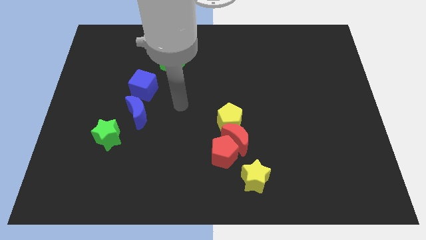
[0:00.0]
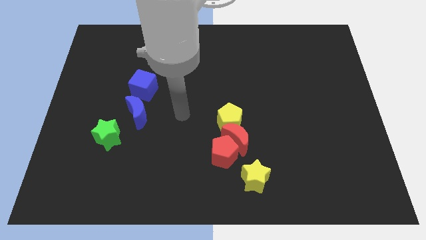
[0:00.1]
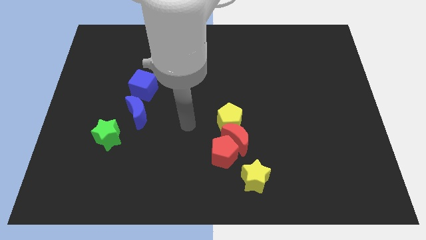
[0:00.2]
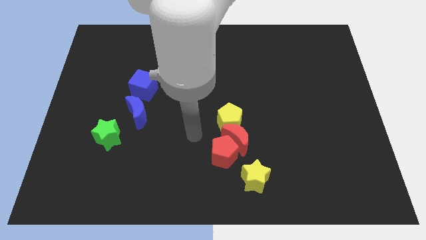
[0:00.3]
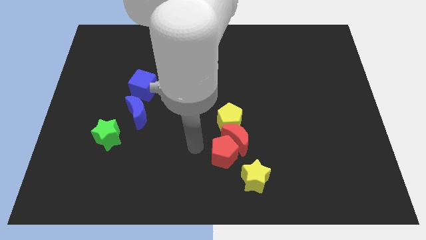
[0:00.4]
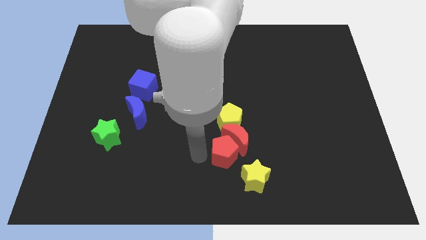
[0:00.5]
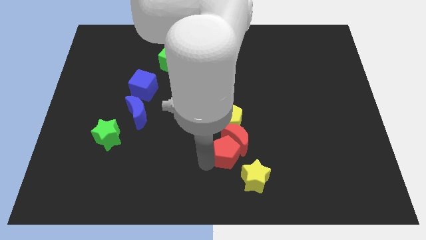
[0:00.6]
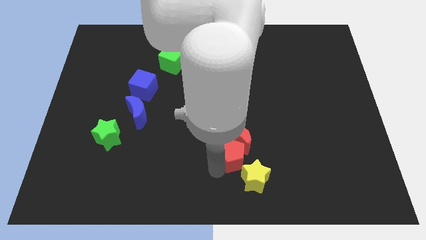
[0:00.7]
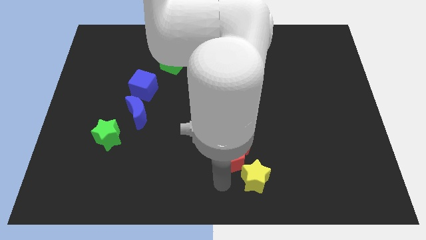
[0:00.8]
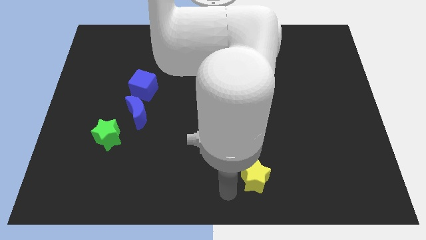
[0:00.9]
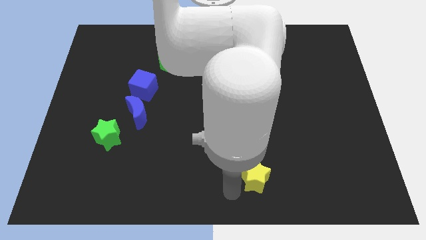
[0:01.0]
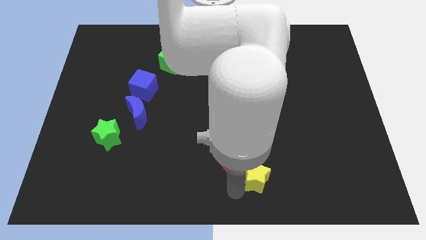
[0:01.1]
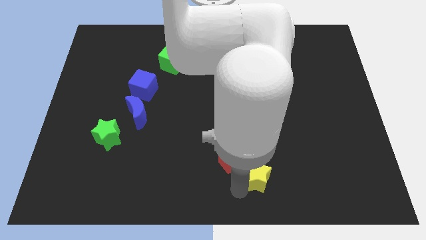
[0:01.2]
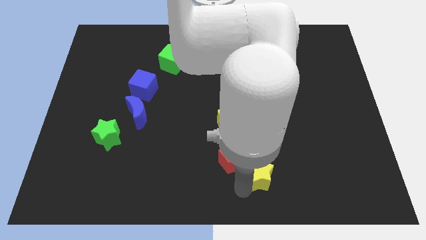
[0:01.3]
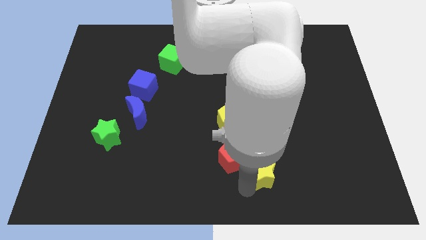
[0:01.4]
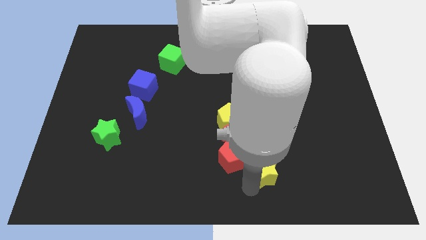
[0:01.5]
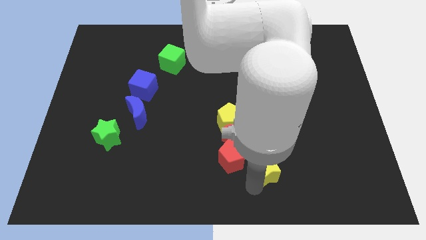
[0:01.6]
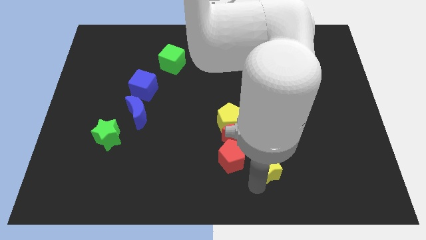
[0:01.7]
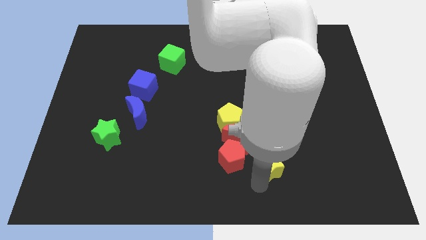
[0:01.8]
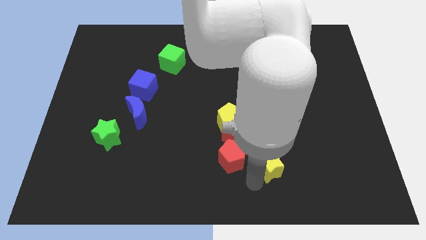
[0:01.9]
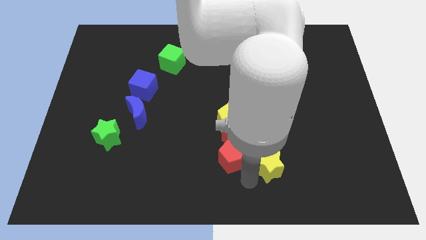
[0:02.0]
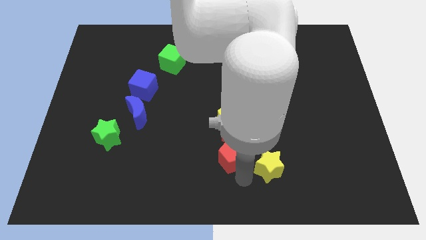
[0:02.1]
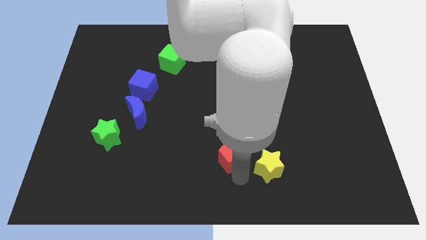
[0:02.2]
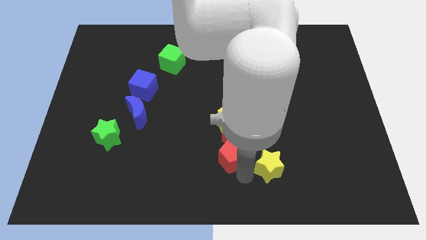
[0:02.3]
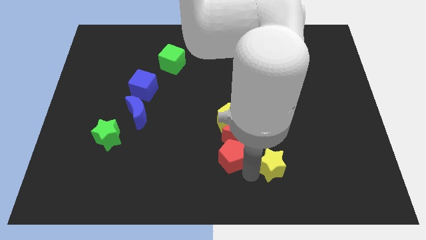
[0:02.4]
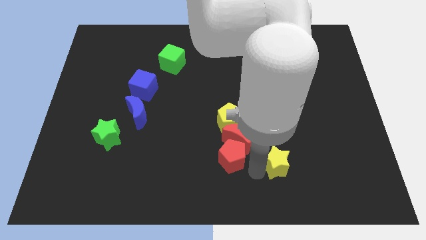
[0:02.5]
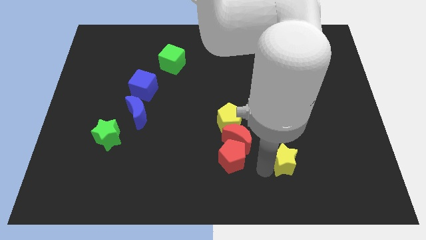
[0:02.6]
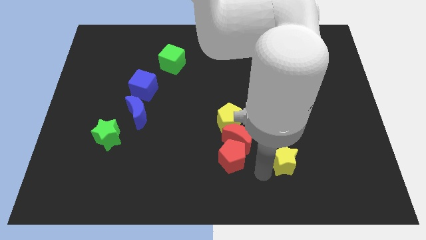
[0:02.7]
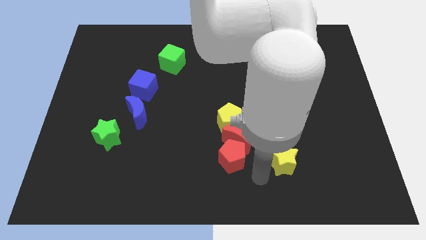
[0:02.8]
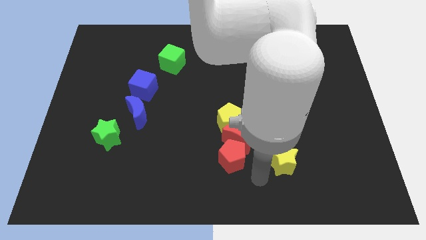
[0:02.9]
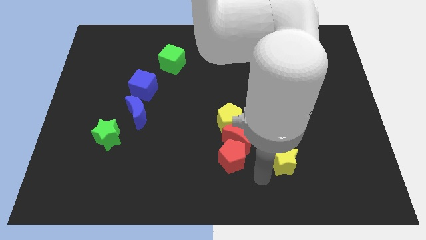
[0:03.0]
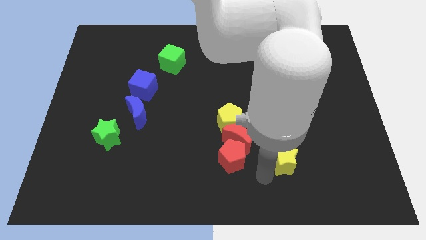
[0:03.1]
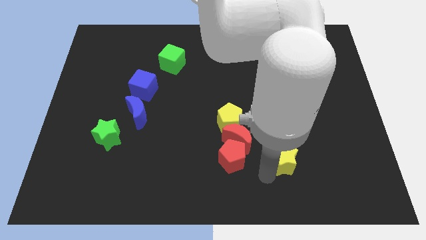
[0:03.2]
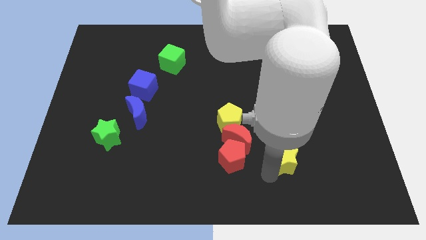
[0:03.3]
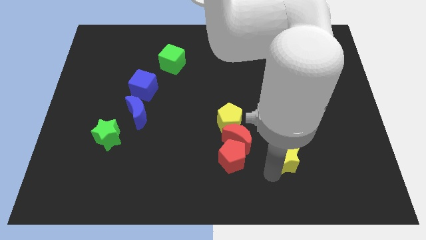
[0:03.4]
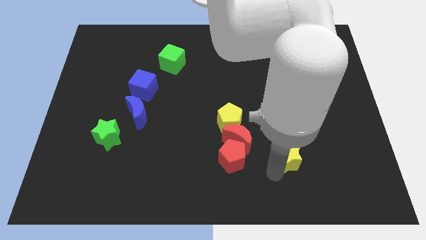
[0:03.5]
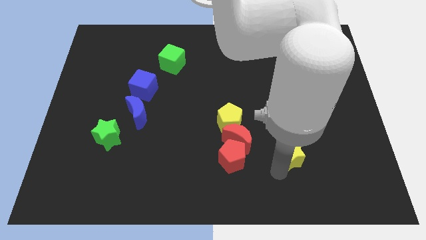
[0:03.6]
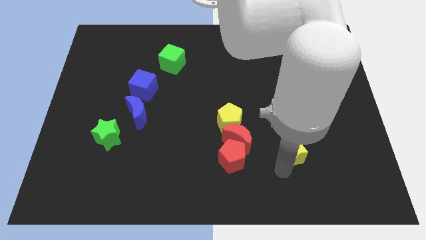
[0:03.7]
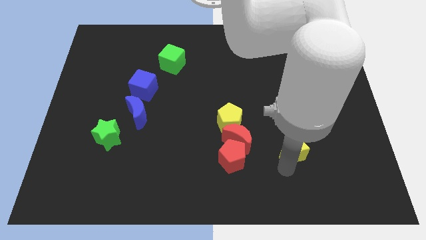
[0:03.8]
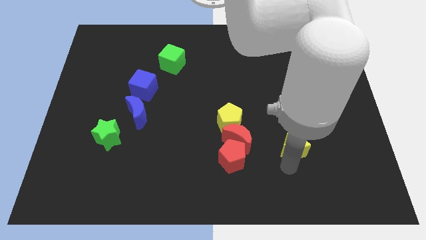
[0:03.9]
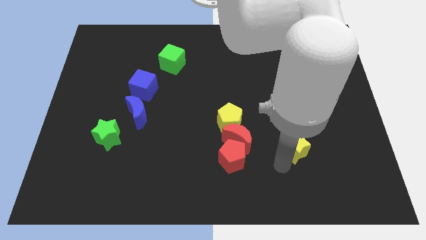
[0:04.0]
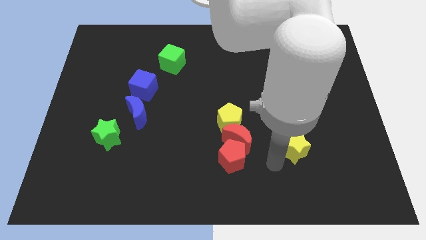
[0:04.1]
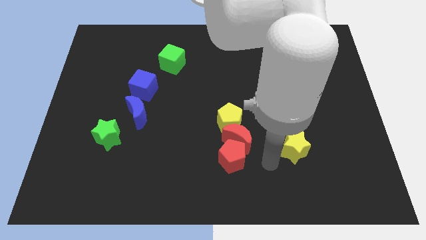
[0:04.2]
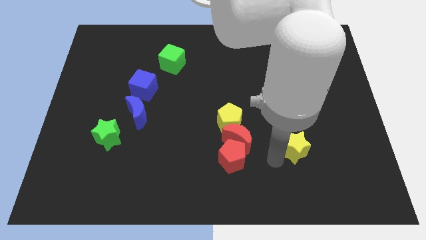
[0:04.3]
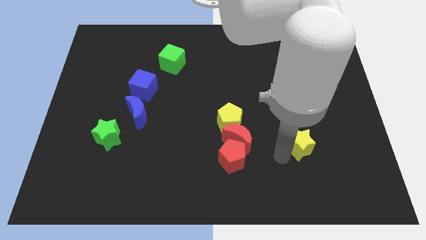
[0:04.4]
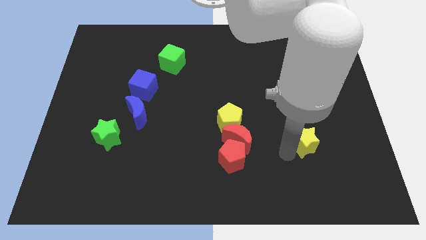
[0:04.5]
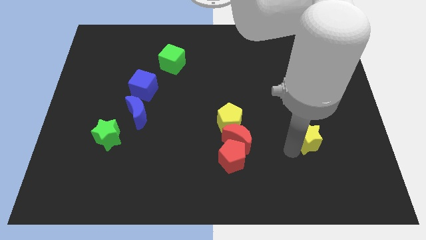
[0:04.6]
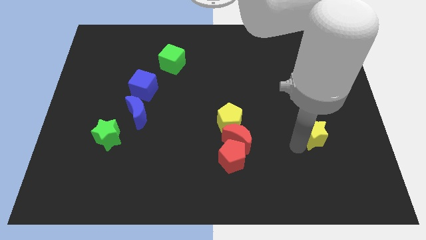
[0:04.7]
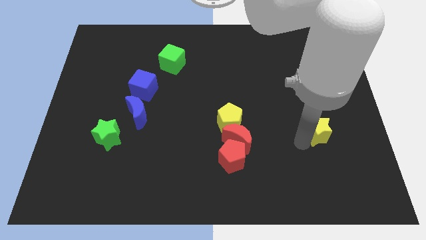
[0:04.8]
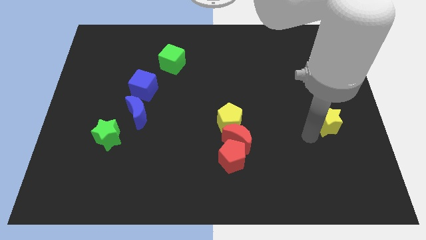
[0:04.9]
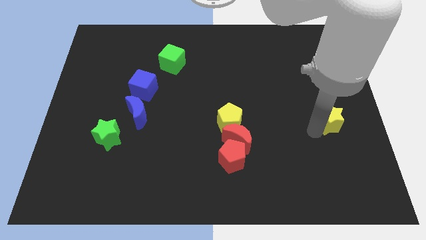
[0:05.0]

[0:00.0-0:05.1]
move the yellow star to the right side

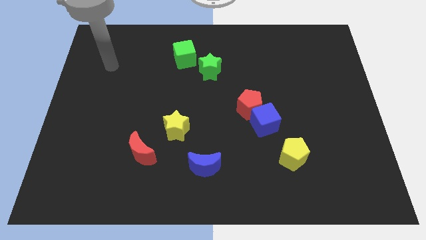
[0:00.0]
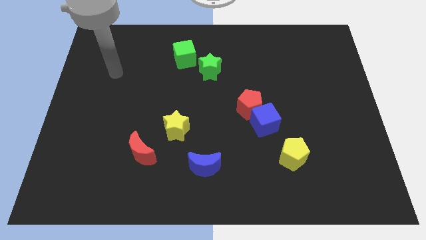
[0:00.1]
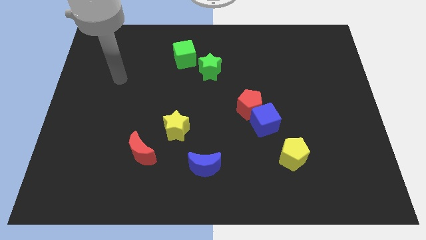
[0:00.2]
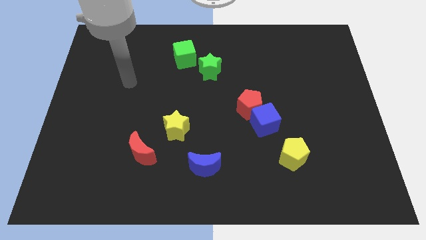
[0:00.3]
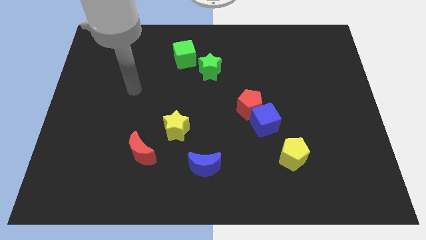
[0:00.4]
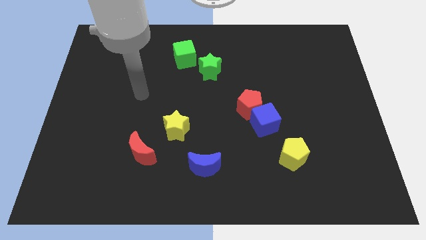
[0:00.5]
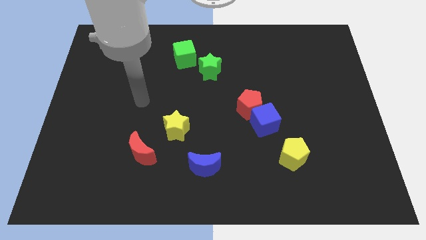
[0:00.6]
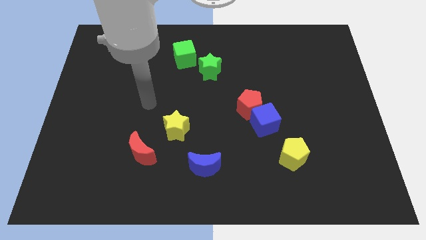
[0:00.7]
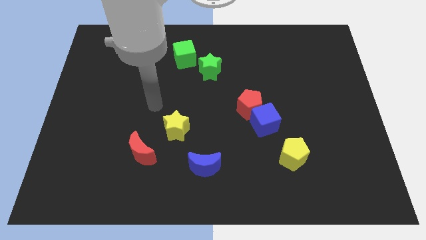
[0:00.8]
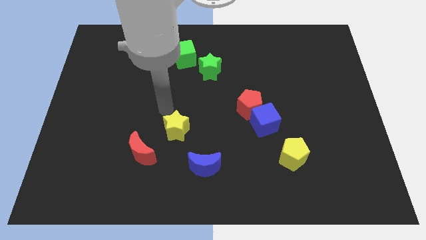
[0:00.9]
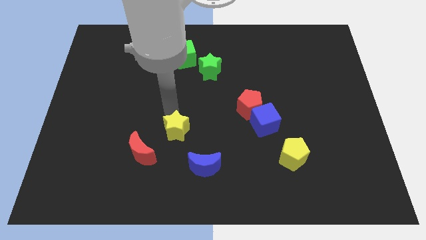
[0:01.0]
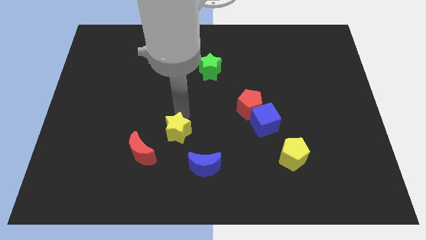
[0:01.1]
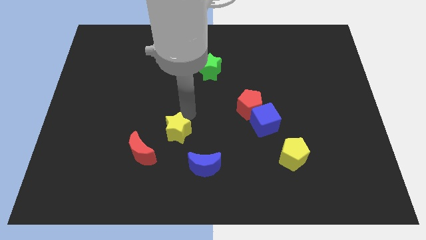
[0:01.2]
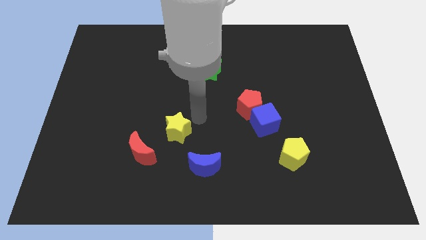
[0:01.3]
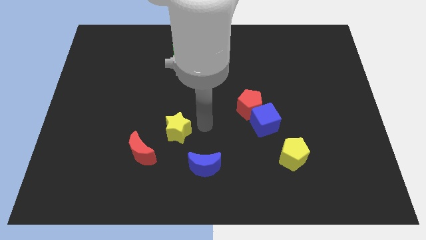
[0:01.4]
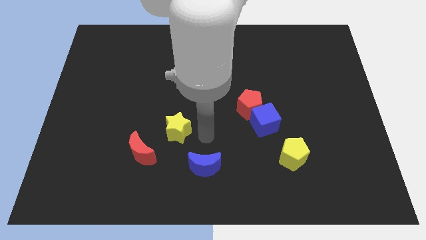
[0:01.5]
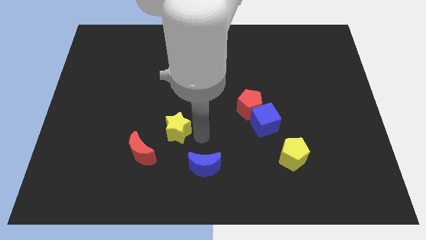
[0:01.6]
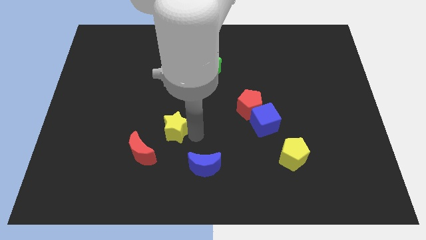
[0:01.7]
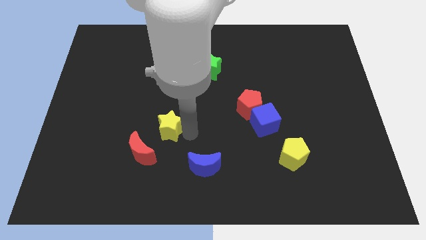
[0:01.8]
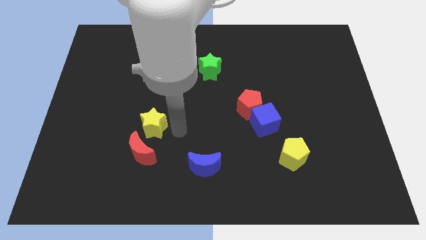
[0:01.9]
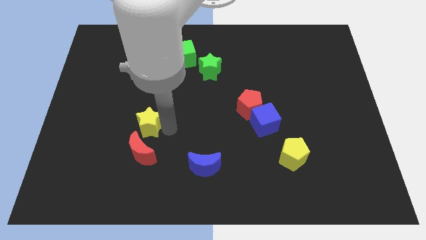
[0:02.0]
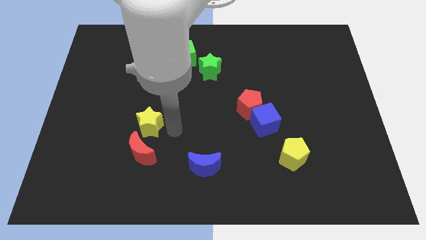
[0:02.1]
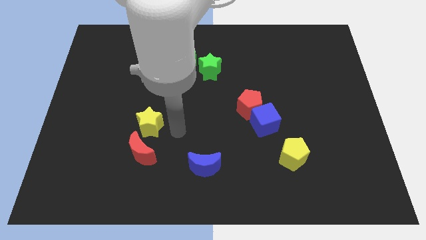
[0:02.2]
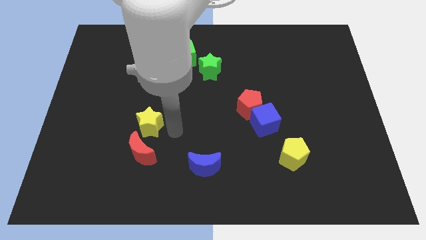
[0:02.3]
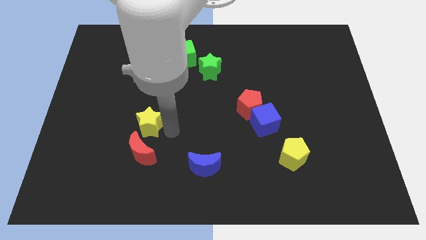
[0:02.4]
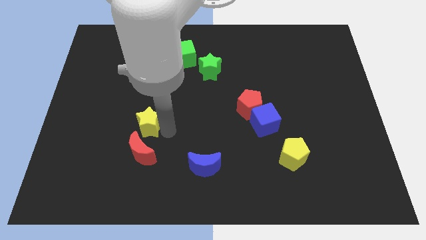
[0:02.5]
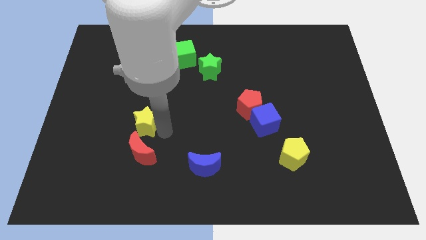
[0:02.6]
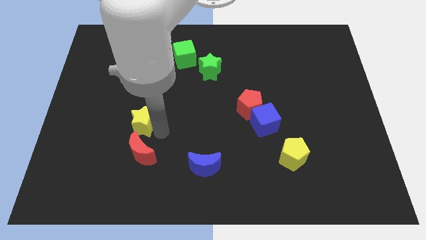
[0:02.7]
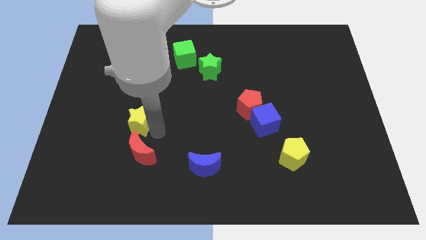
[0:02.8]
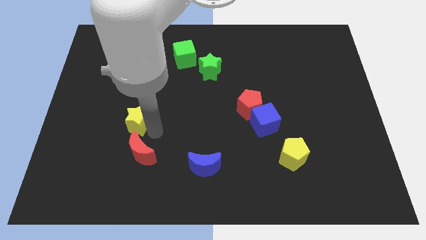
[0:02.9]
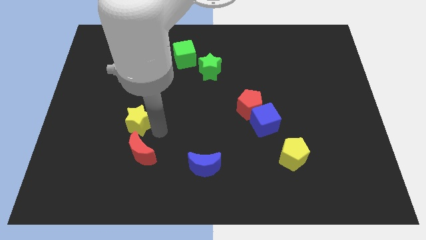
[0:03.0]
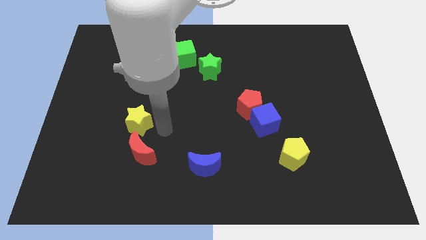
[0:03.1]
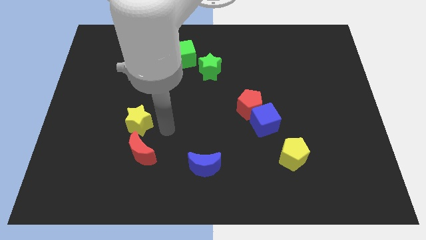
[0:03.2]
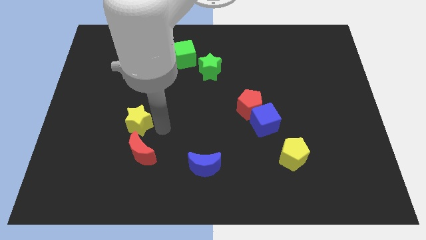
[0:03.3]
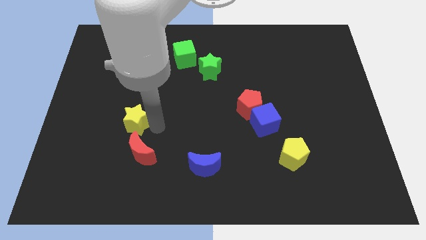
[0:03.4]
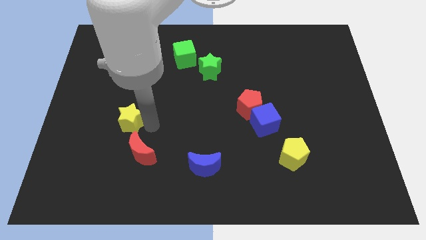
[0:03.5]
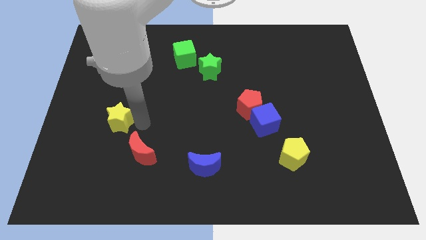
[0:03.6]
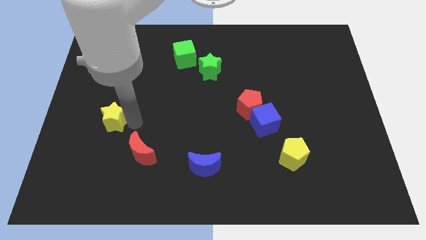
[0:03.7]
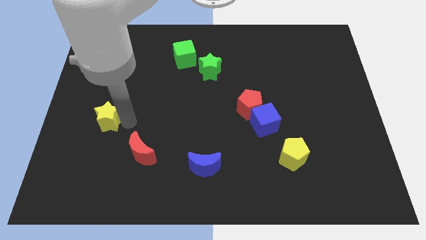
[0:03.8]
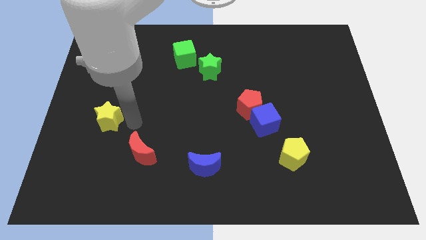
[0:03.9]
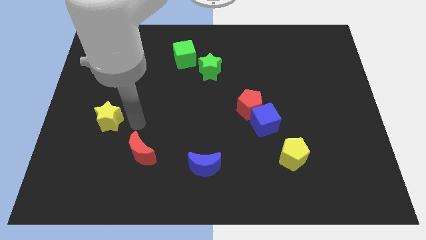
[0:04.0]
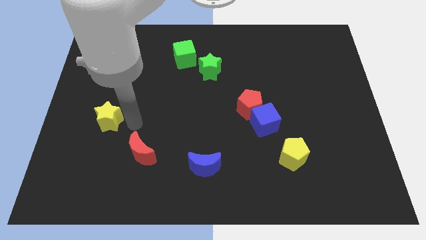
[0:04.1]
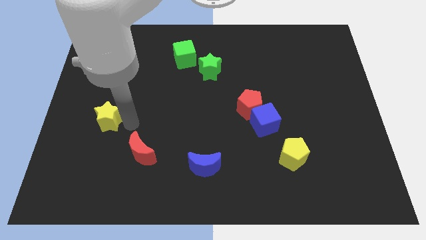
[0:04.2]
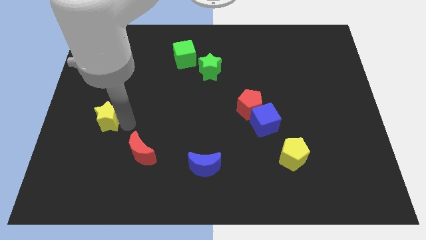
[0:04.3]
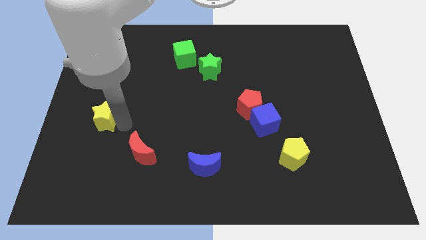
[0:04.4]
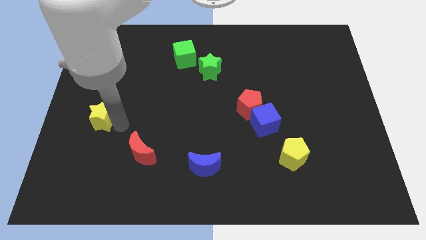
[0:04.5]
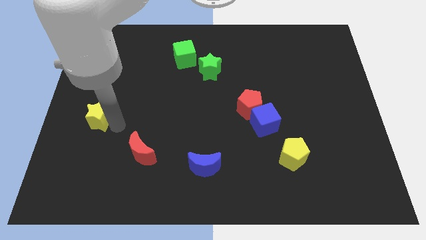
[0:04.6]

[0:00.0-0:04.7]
push the yellow star to the left side
